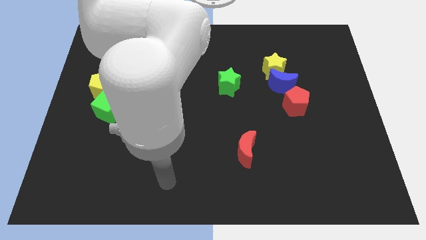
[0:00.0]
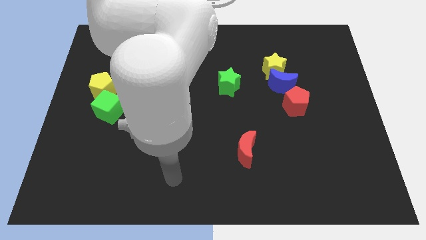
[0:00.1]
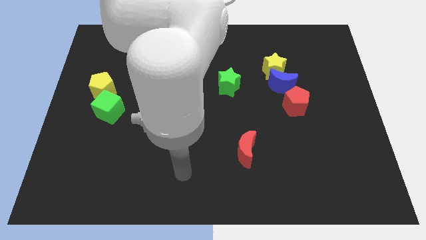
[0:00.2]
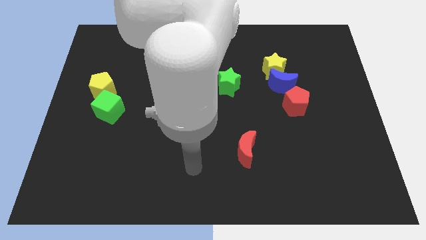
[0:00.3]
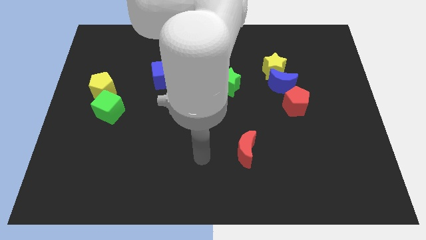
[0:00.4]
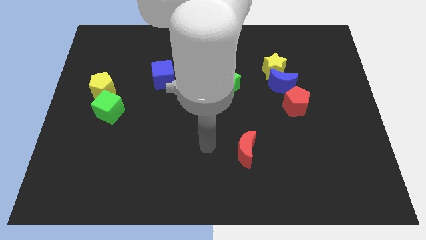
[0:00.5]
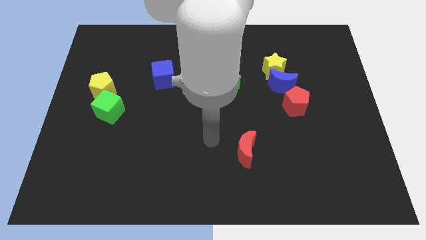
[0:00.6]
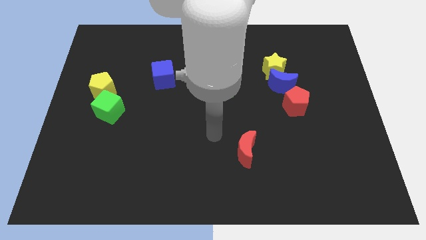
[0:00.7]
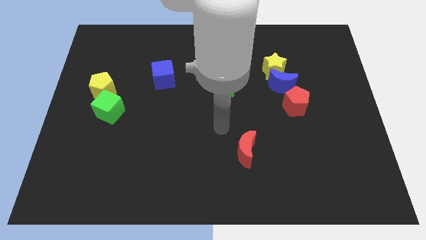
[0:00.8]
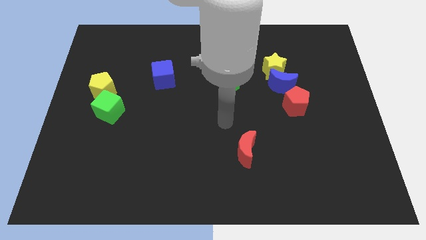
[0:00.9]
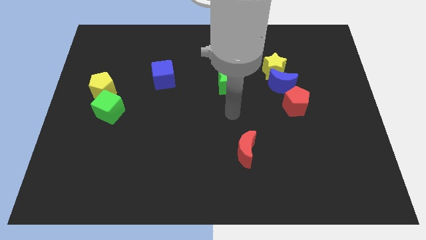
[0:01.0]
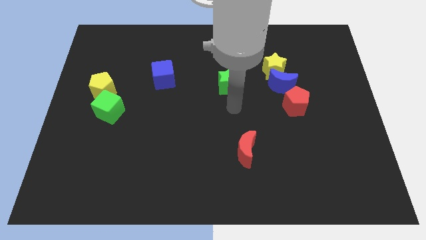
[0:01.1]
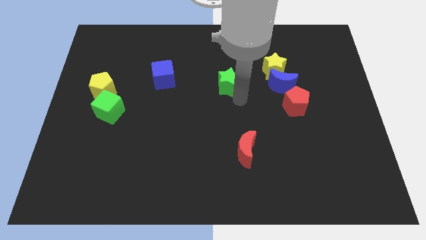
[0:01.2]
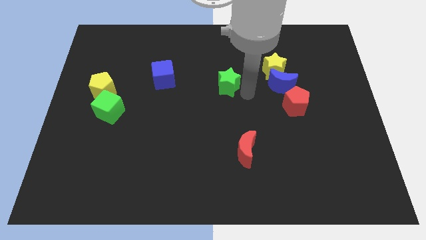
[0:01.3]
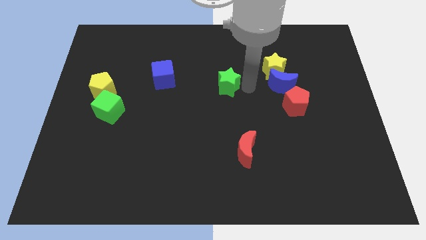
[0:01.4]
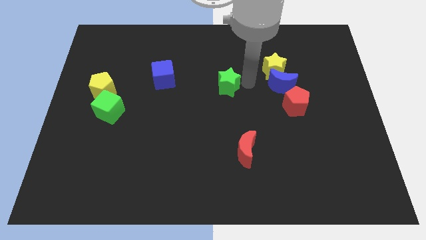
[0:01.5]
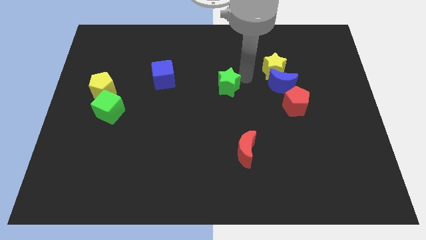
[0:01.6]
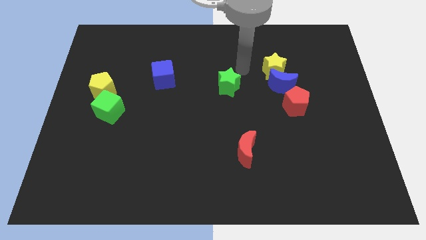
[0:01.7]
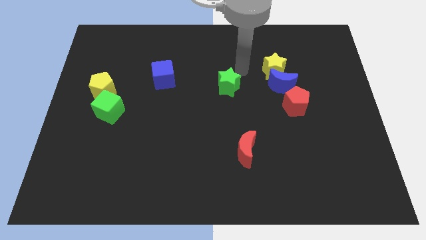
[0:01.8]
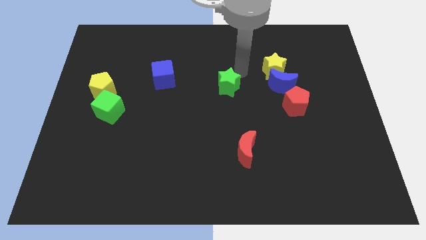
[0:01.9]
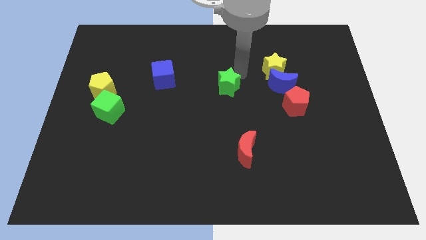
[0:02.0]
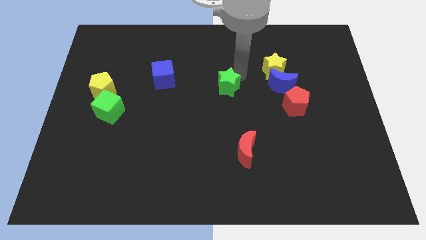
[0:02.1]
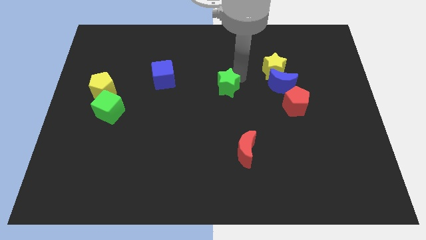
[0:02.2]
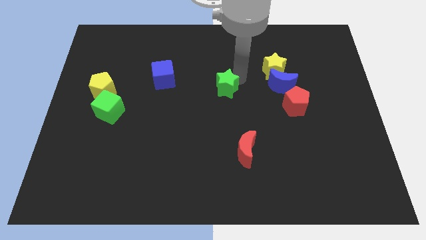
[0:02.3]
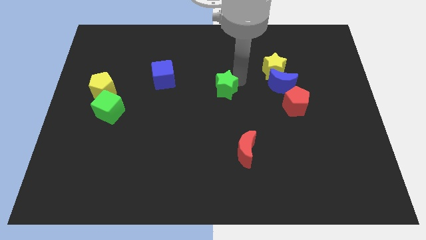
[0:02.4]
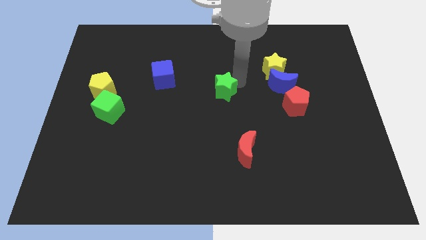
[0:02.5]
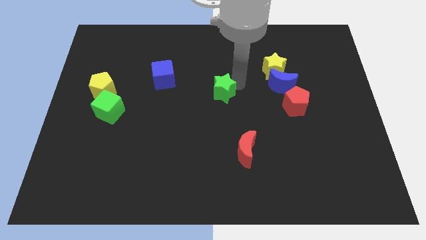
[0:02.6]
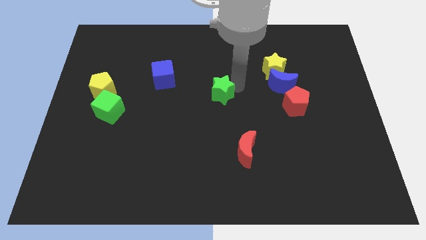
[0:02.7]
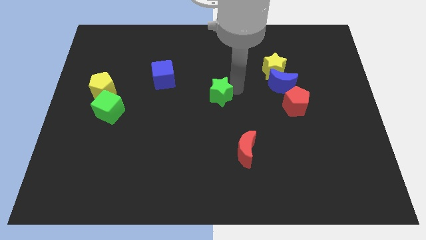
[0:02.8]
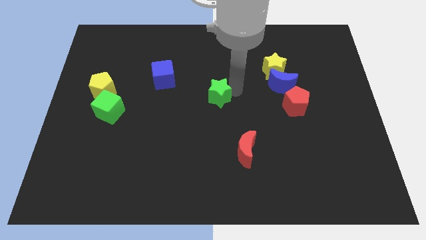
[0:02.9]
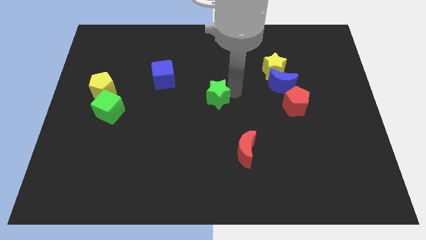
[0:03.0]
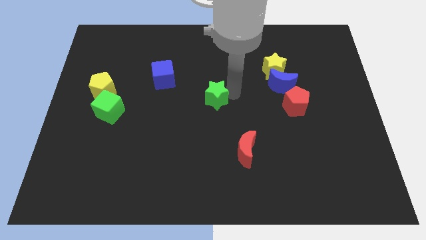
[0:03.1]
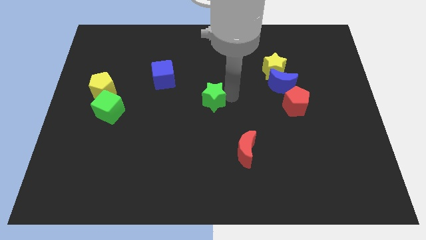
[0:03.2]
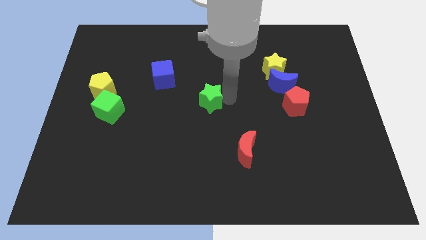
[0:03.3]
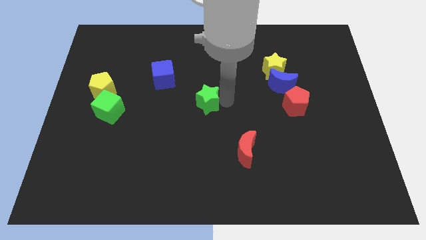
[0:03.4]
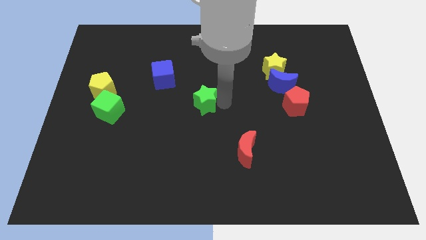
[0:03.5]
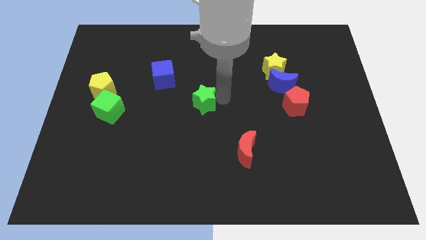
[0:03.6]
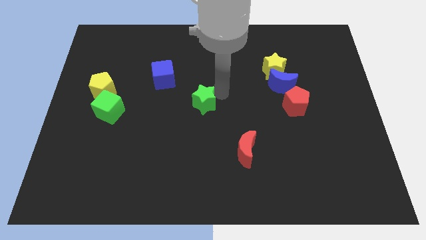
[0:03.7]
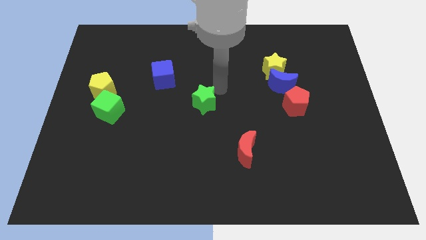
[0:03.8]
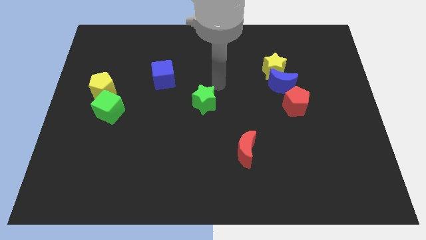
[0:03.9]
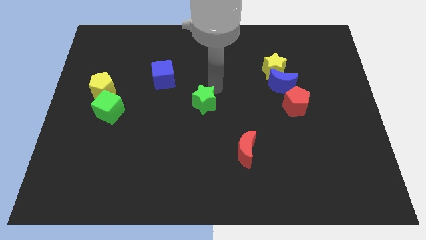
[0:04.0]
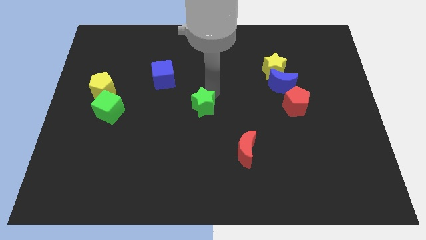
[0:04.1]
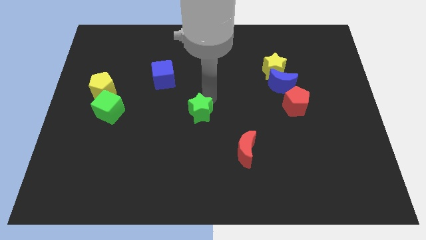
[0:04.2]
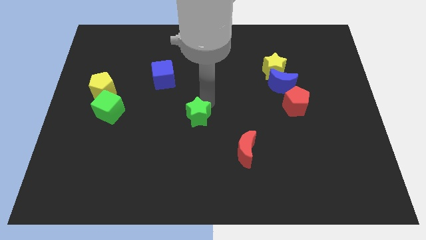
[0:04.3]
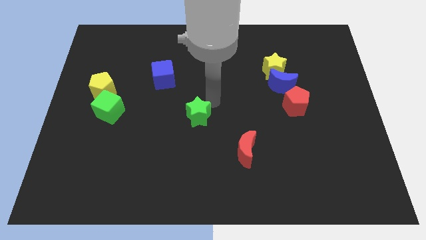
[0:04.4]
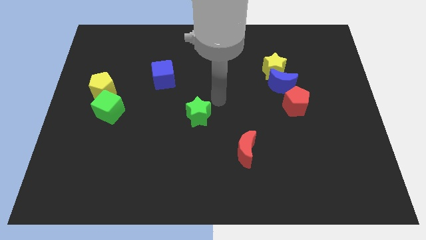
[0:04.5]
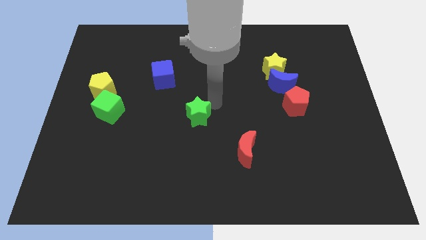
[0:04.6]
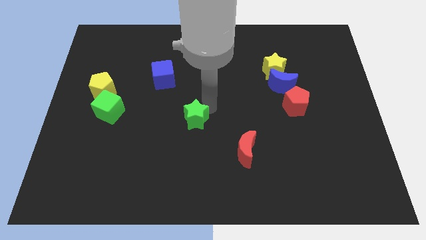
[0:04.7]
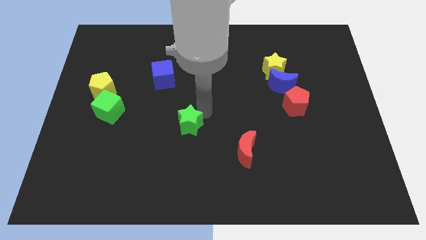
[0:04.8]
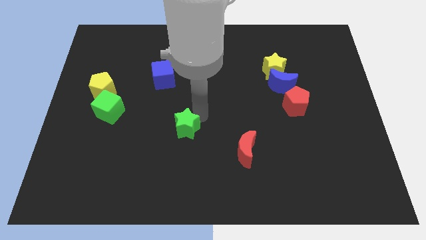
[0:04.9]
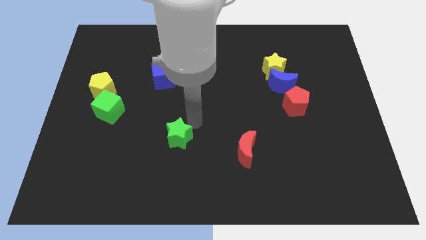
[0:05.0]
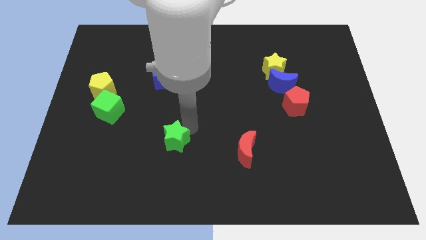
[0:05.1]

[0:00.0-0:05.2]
move the green star diagonally down and to the left

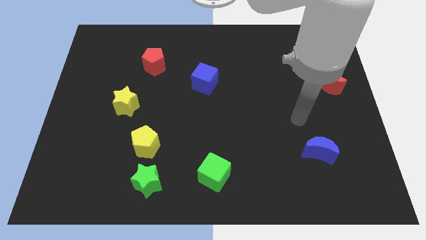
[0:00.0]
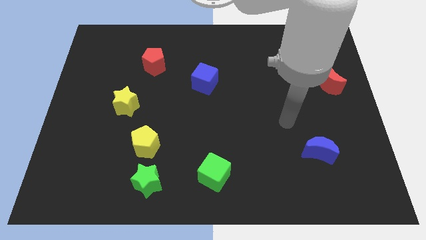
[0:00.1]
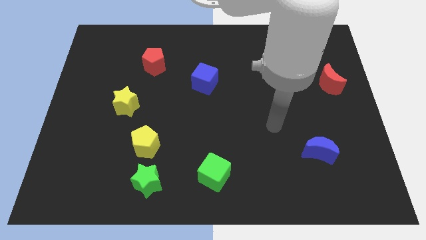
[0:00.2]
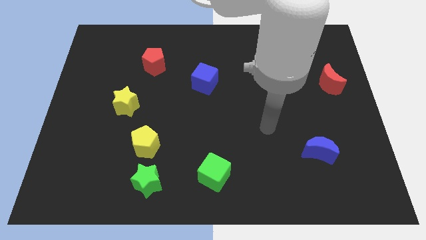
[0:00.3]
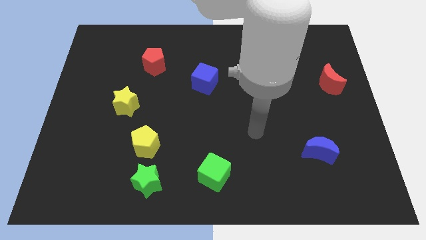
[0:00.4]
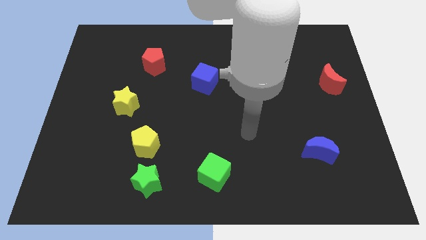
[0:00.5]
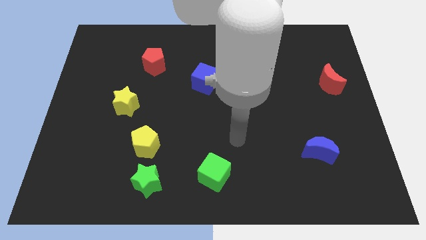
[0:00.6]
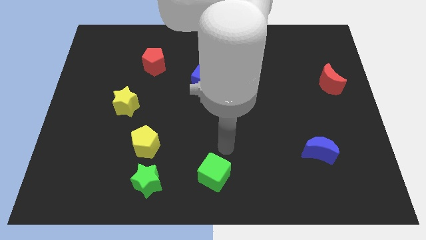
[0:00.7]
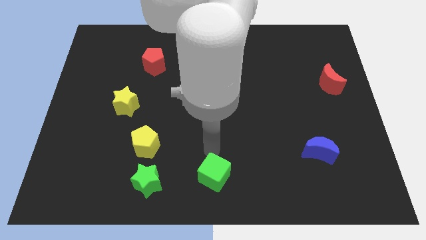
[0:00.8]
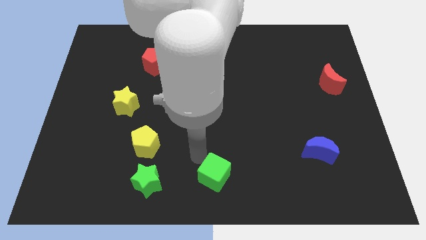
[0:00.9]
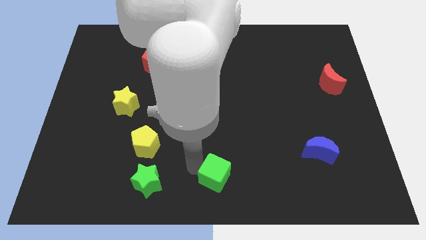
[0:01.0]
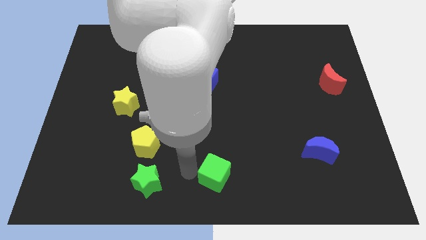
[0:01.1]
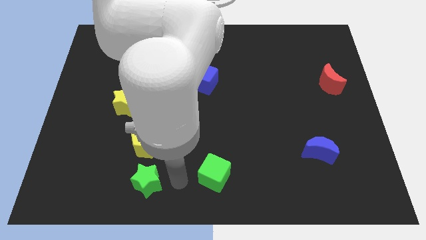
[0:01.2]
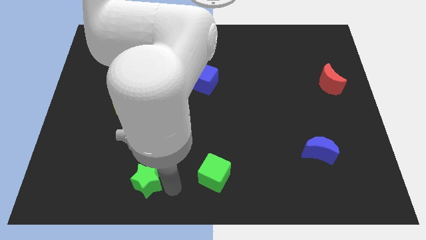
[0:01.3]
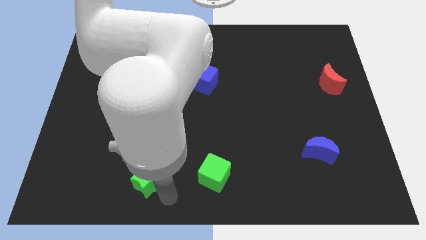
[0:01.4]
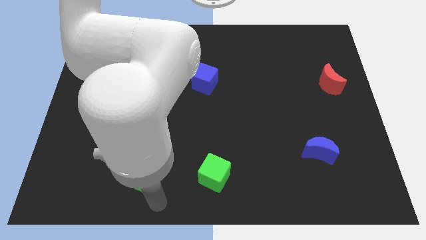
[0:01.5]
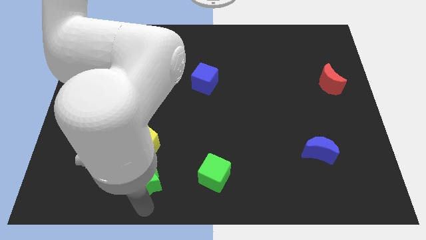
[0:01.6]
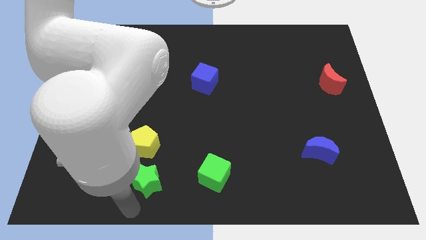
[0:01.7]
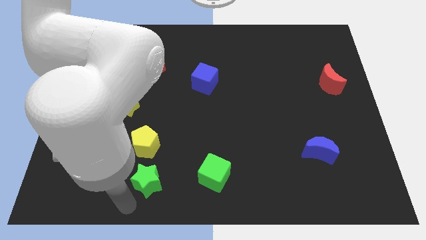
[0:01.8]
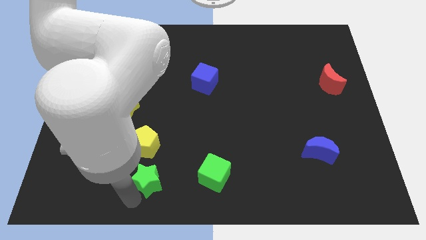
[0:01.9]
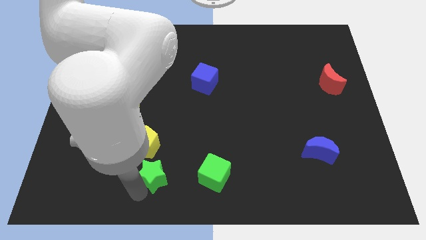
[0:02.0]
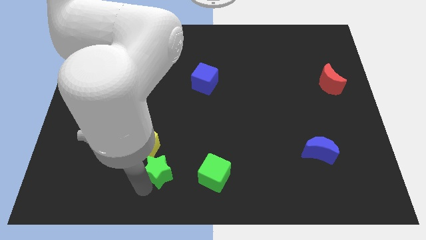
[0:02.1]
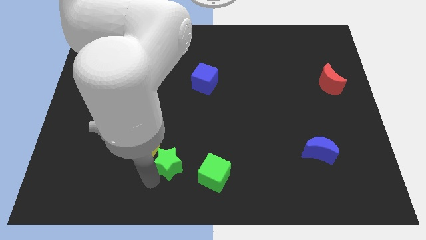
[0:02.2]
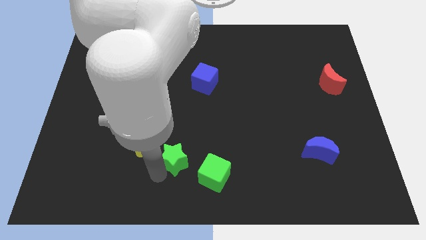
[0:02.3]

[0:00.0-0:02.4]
slightly slide the green star up and to the right diagonally

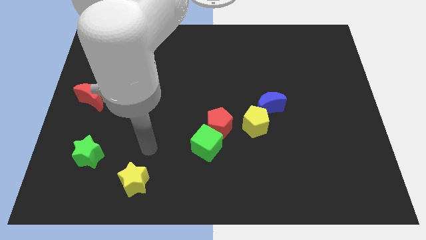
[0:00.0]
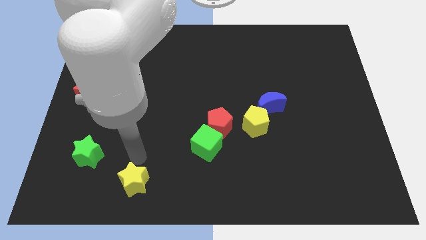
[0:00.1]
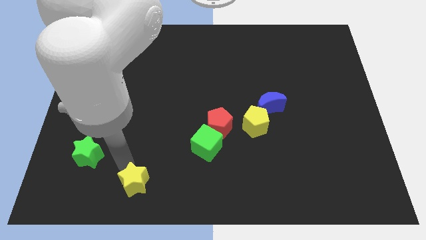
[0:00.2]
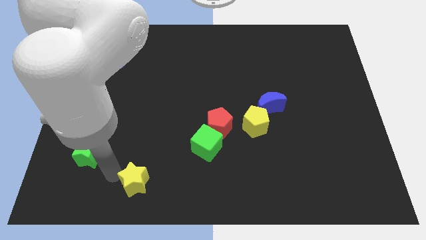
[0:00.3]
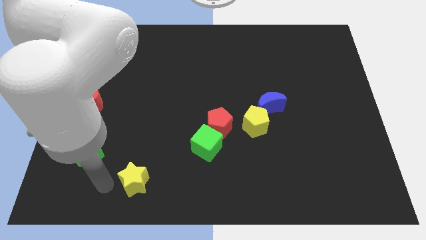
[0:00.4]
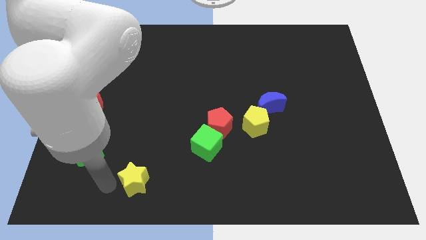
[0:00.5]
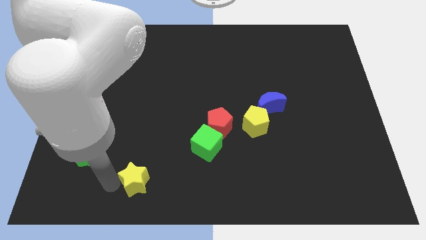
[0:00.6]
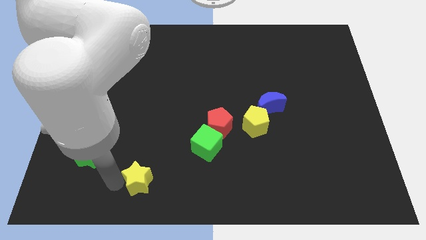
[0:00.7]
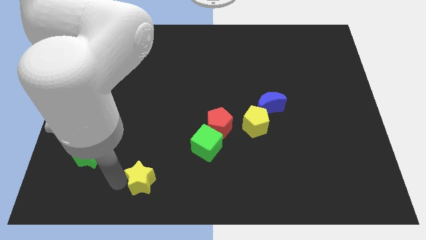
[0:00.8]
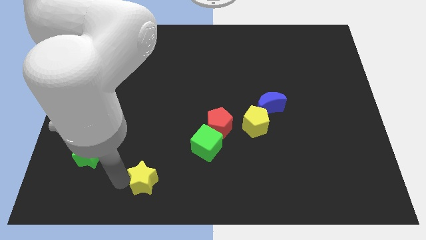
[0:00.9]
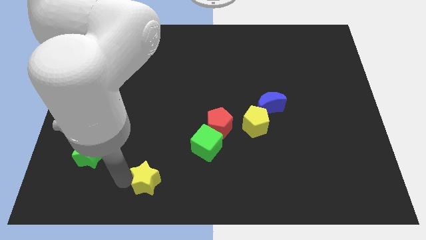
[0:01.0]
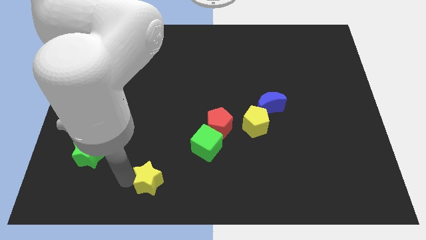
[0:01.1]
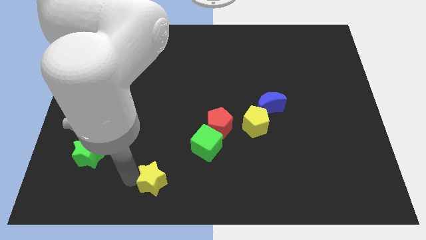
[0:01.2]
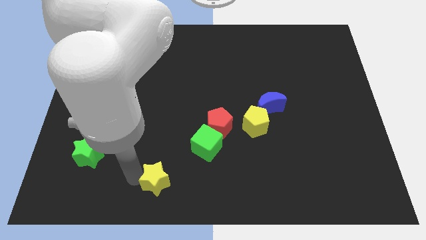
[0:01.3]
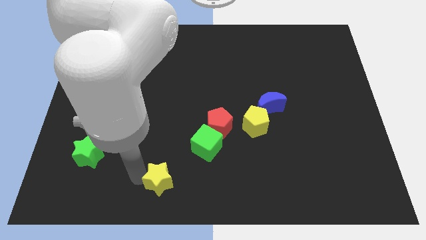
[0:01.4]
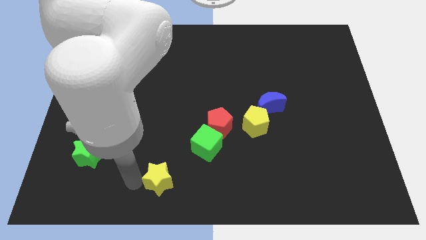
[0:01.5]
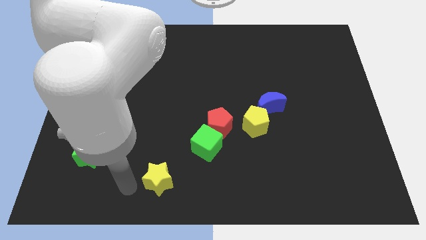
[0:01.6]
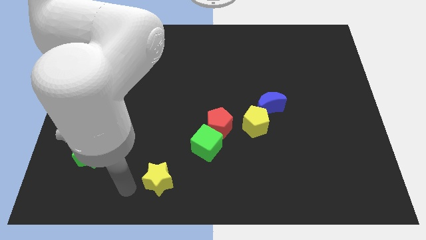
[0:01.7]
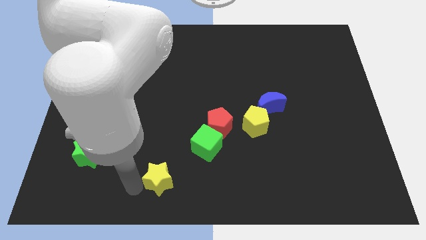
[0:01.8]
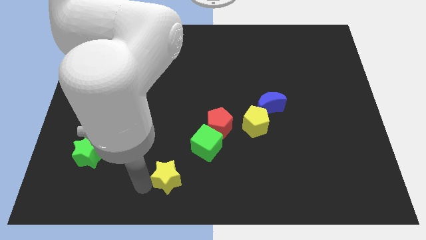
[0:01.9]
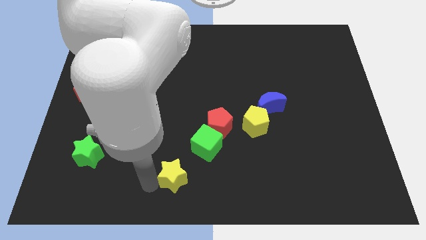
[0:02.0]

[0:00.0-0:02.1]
slide the yellow star to the right slightly
